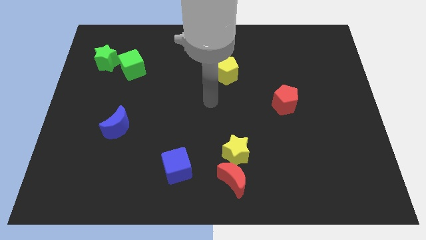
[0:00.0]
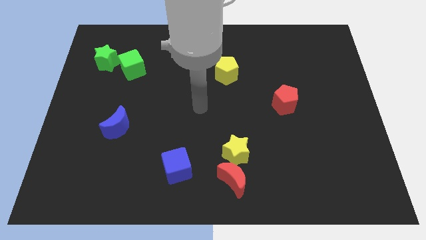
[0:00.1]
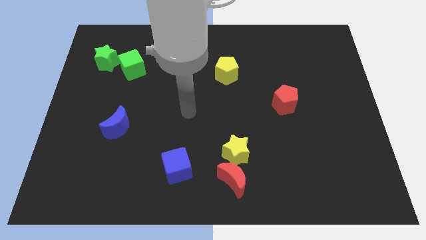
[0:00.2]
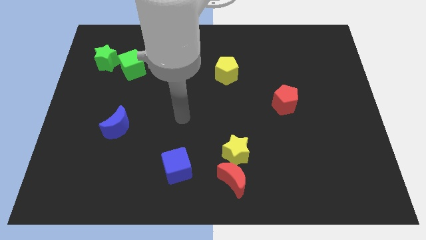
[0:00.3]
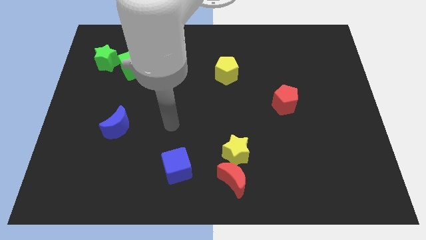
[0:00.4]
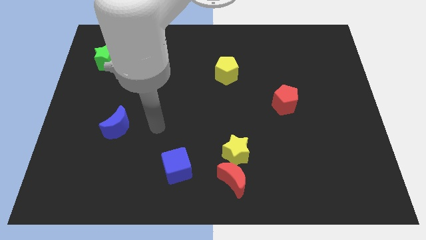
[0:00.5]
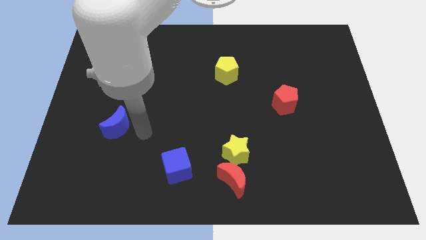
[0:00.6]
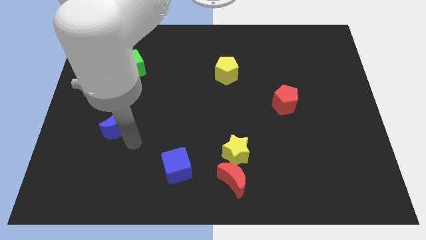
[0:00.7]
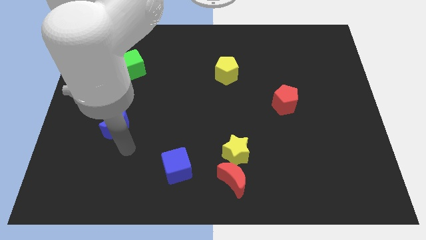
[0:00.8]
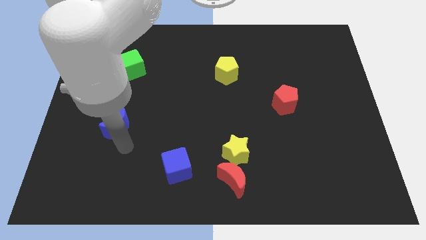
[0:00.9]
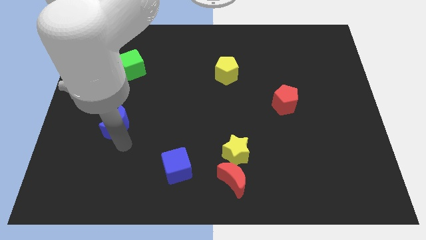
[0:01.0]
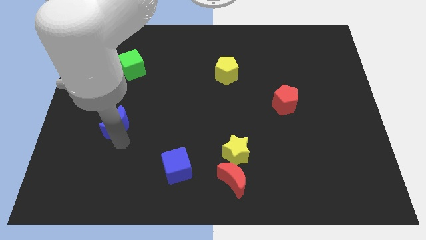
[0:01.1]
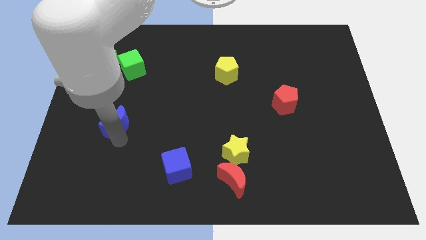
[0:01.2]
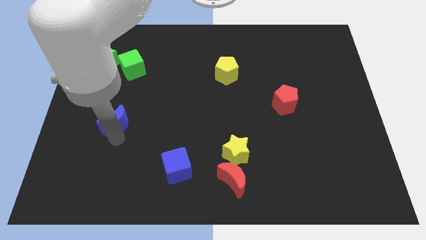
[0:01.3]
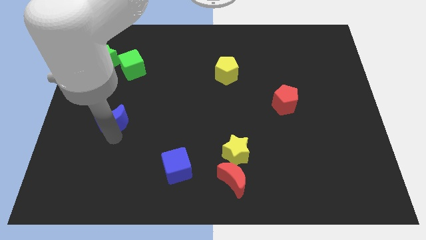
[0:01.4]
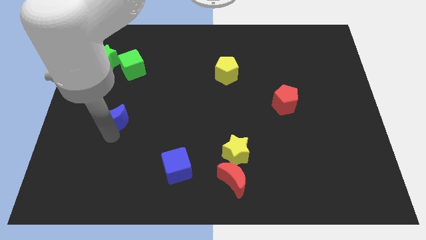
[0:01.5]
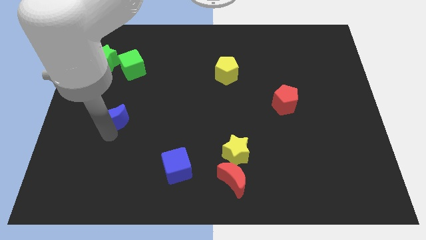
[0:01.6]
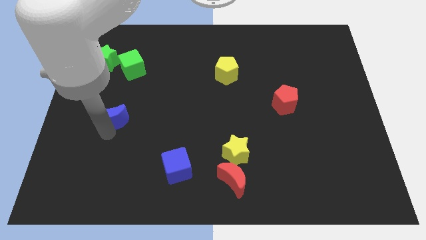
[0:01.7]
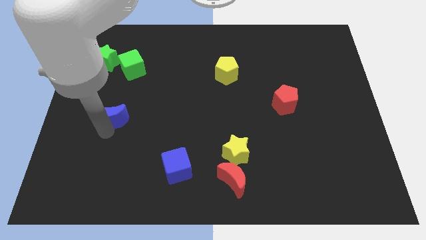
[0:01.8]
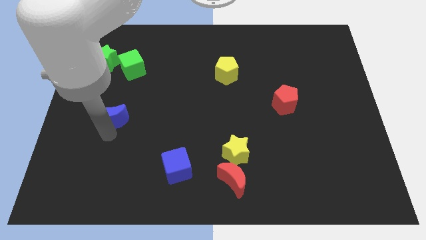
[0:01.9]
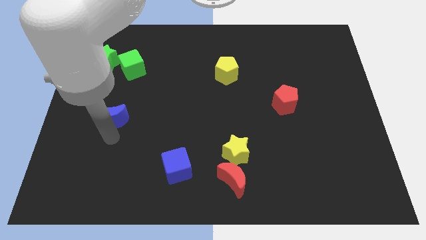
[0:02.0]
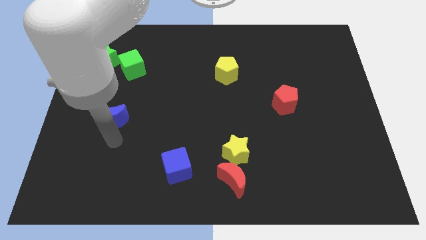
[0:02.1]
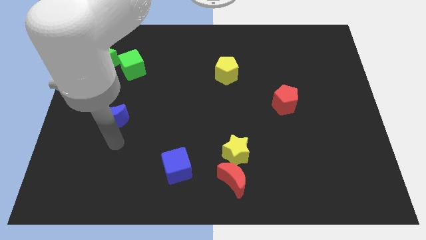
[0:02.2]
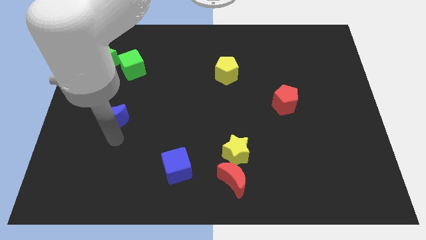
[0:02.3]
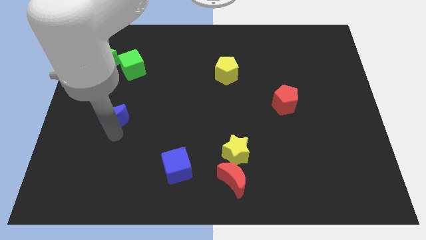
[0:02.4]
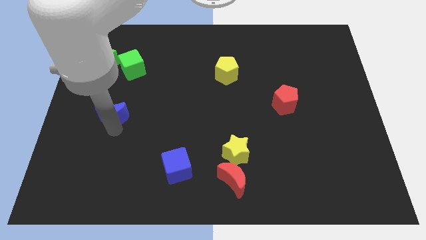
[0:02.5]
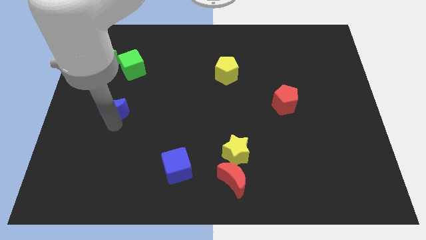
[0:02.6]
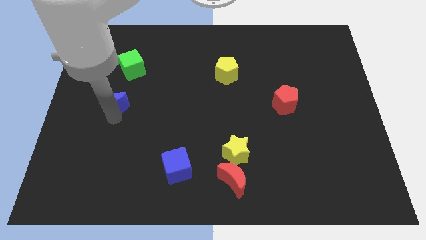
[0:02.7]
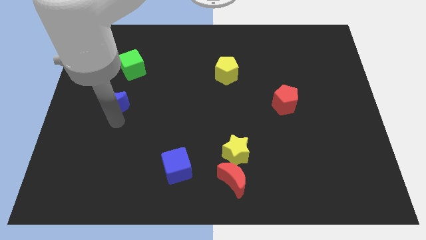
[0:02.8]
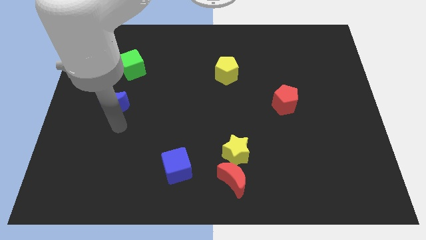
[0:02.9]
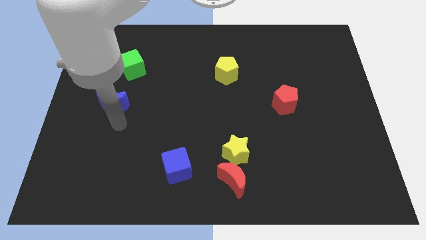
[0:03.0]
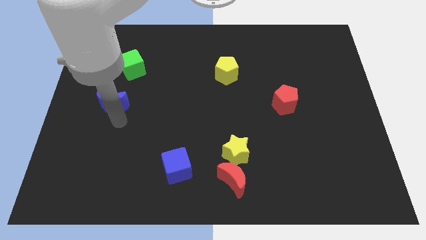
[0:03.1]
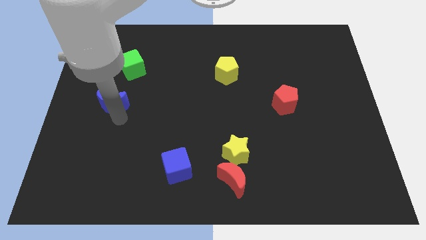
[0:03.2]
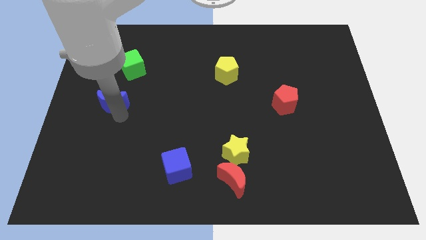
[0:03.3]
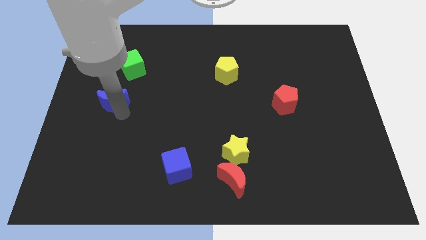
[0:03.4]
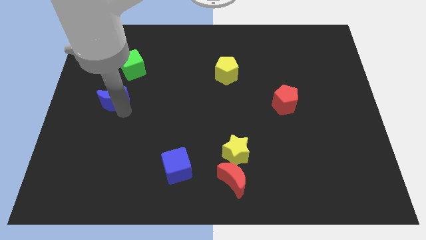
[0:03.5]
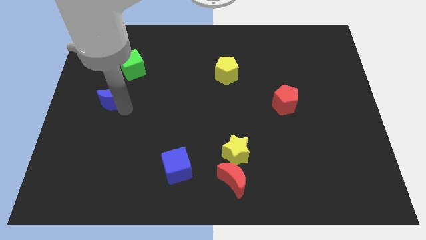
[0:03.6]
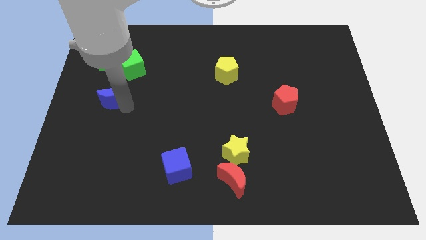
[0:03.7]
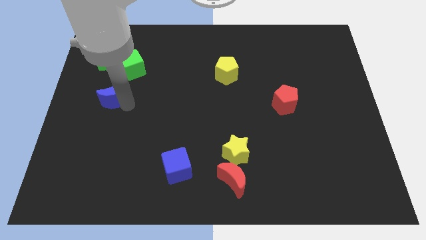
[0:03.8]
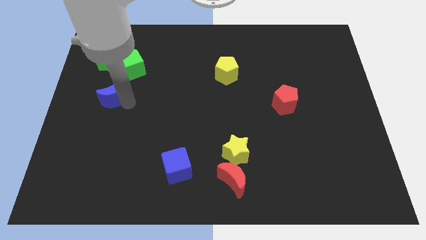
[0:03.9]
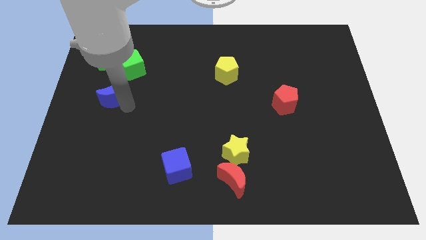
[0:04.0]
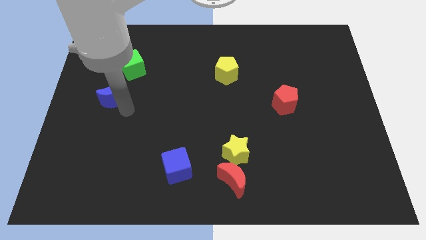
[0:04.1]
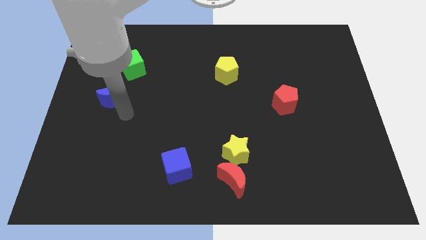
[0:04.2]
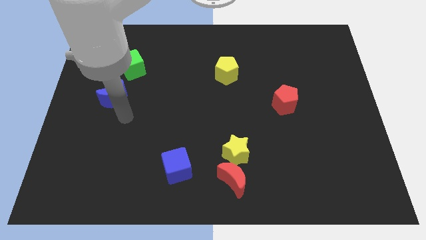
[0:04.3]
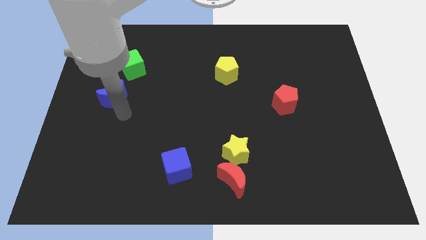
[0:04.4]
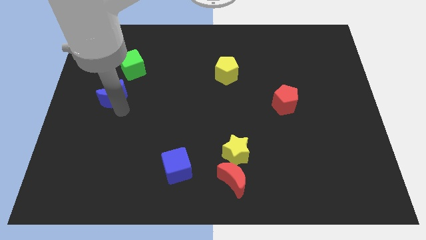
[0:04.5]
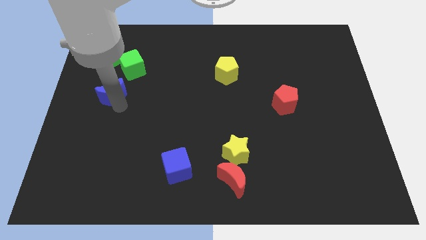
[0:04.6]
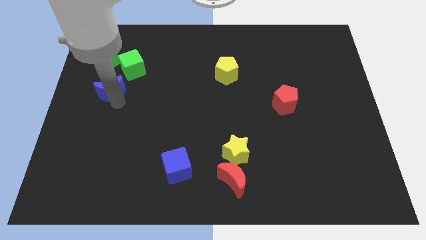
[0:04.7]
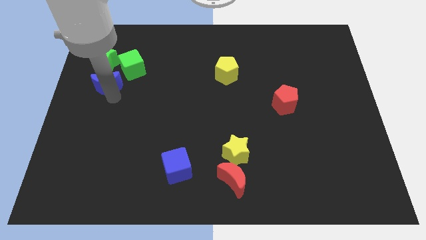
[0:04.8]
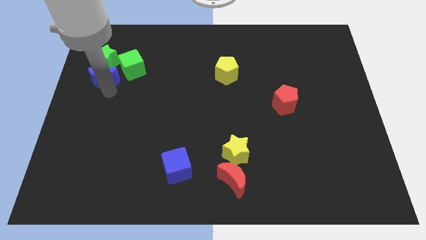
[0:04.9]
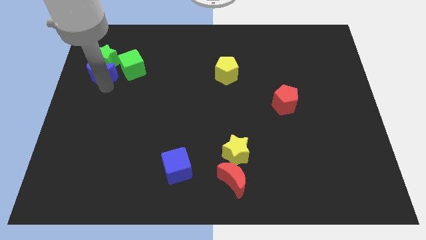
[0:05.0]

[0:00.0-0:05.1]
move the blue moon close to the green star

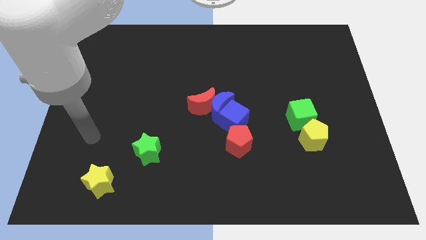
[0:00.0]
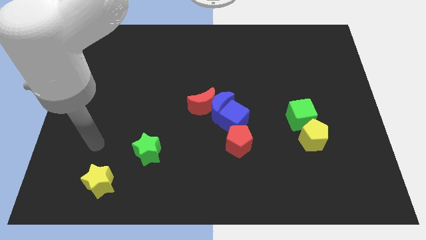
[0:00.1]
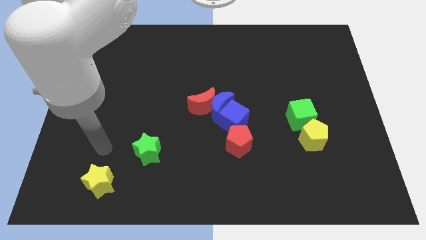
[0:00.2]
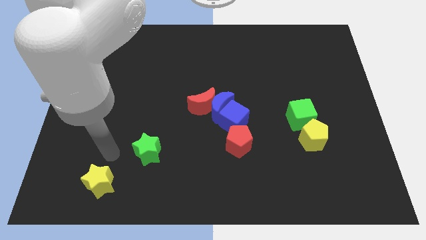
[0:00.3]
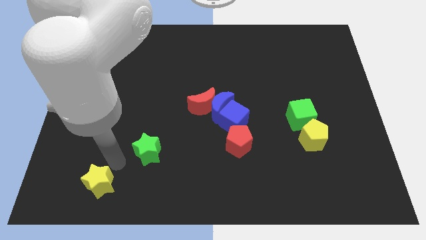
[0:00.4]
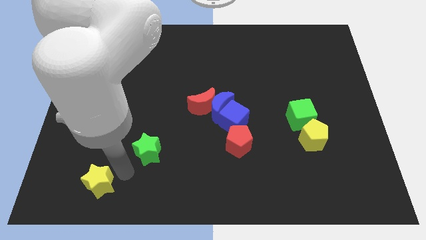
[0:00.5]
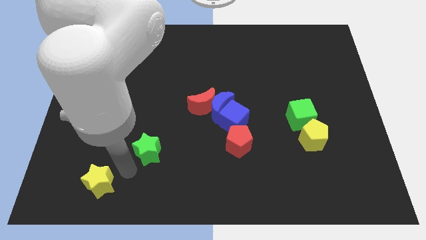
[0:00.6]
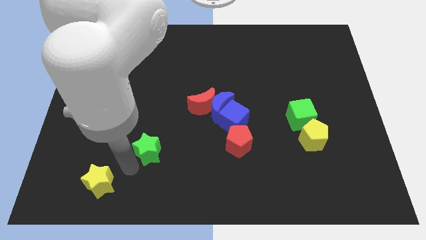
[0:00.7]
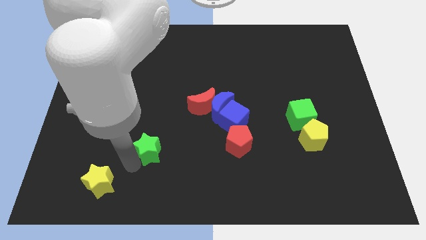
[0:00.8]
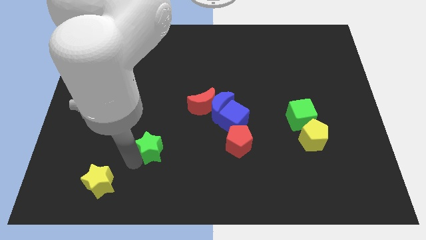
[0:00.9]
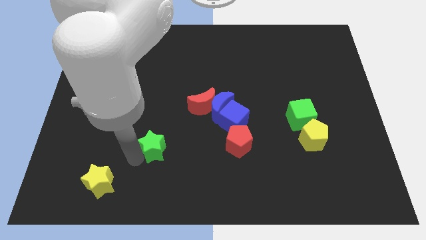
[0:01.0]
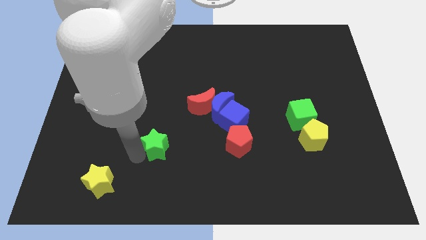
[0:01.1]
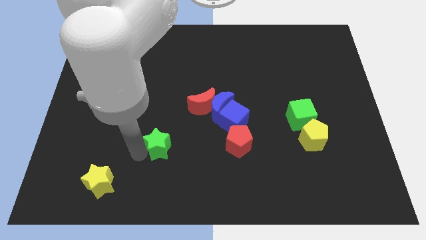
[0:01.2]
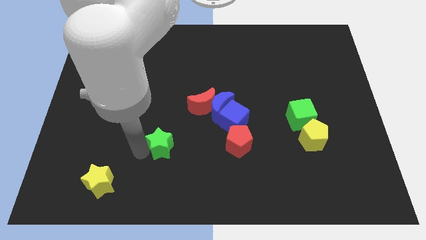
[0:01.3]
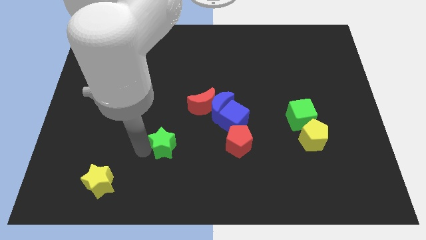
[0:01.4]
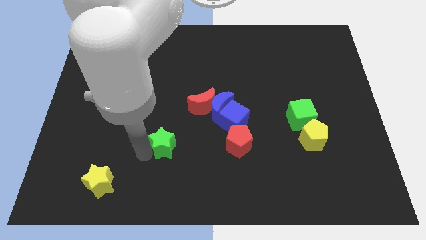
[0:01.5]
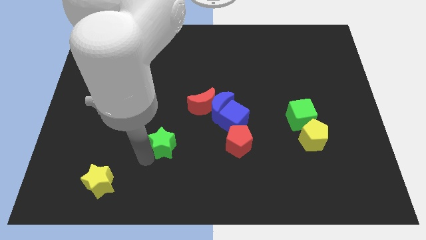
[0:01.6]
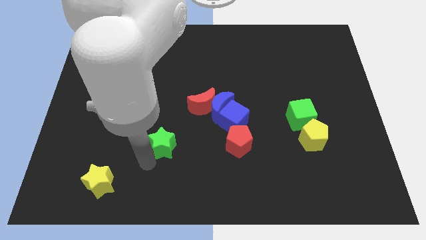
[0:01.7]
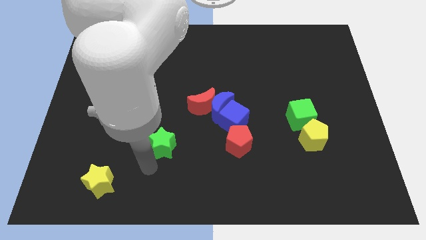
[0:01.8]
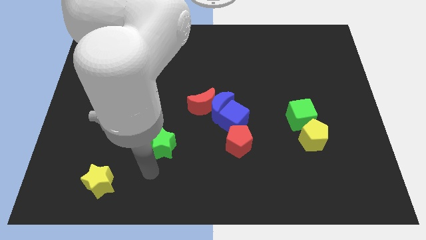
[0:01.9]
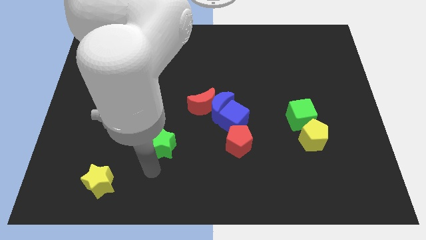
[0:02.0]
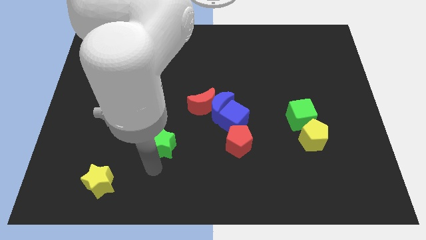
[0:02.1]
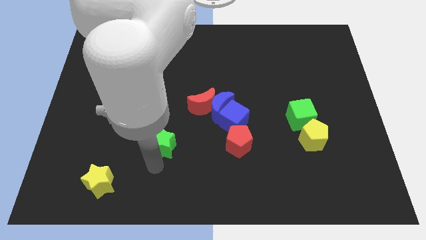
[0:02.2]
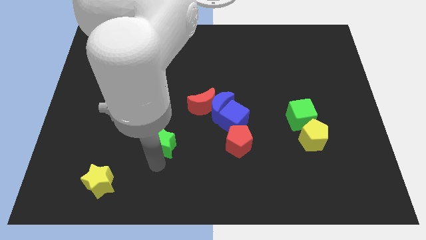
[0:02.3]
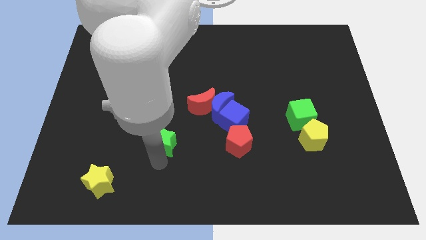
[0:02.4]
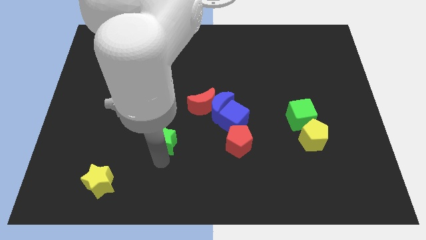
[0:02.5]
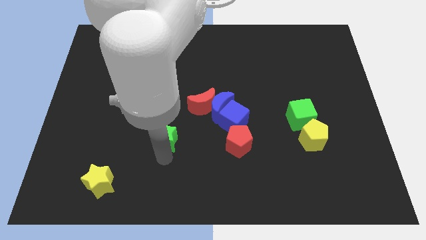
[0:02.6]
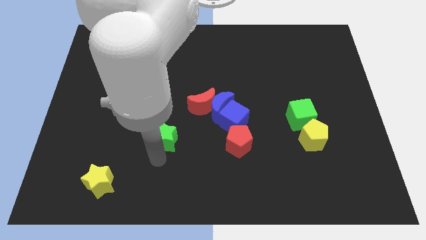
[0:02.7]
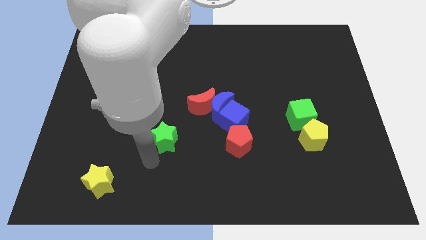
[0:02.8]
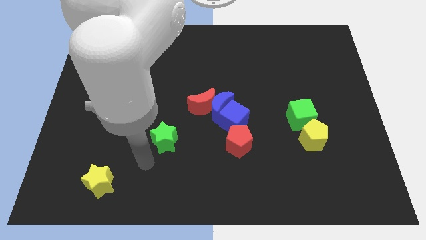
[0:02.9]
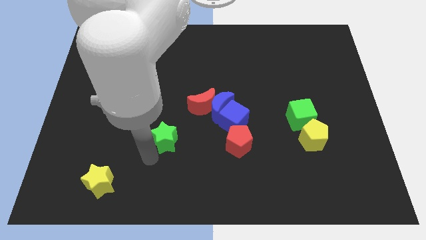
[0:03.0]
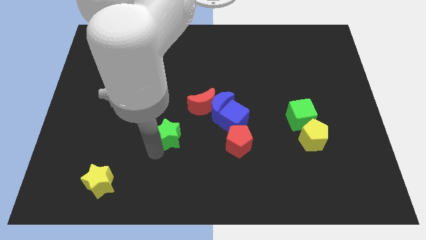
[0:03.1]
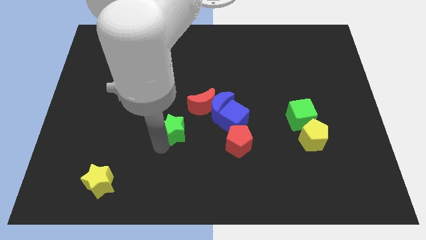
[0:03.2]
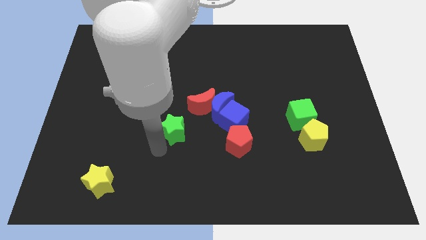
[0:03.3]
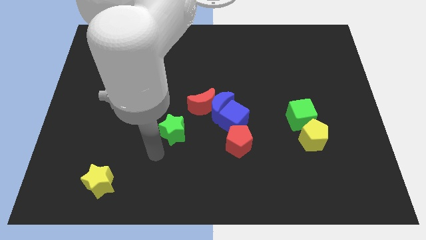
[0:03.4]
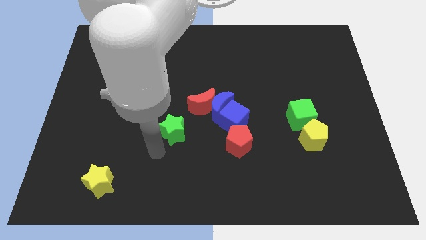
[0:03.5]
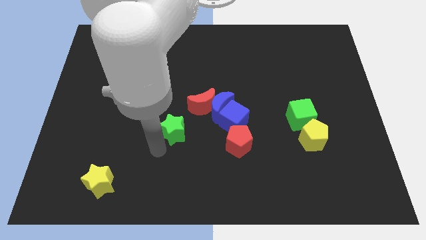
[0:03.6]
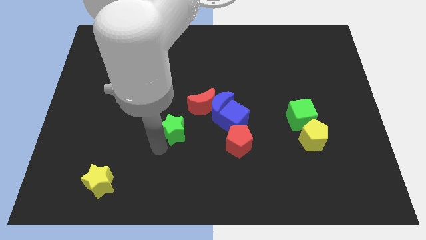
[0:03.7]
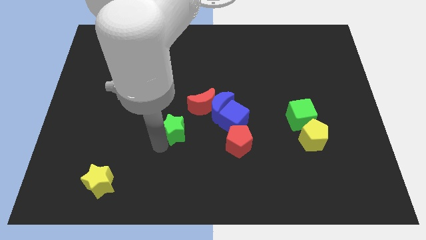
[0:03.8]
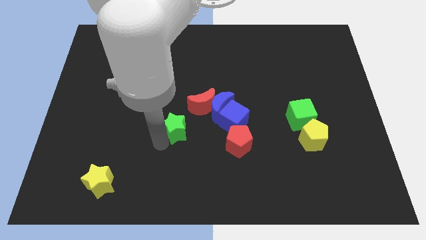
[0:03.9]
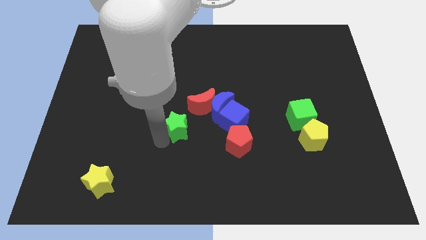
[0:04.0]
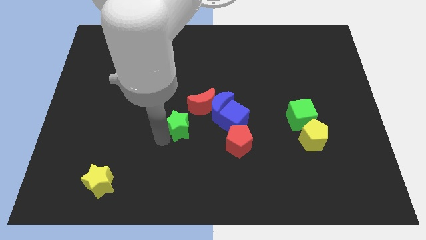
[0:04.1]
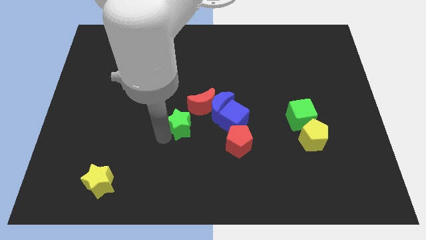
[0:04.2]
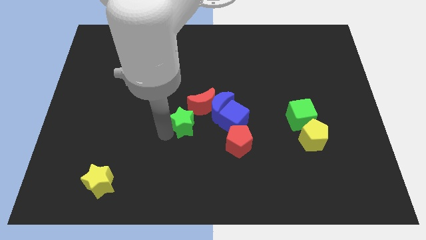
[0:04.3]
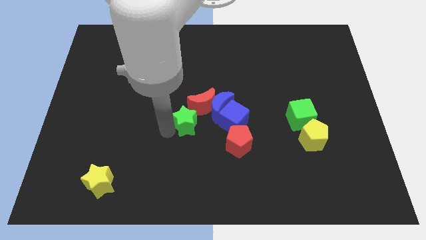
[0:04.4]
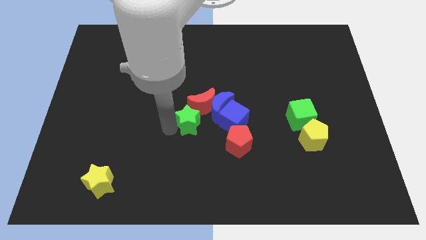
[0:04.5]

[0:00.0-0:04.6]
push the green star close to the red moon
